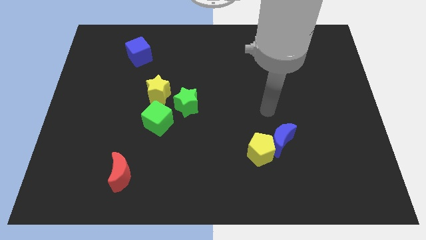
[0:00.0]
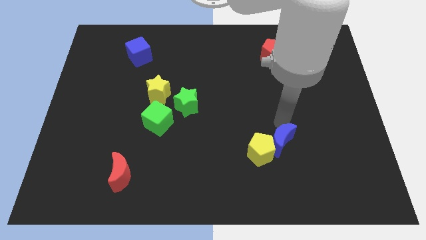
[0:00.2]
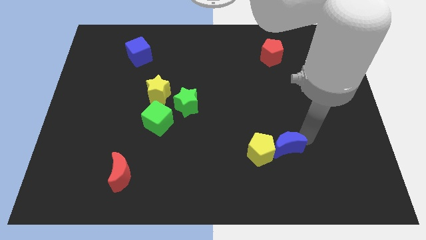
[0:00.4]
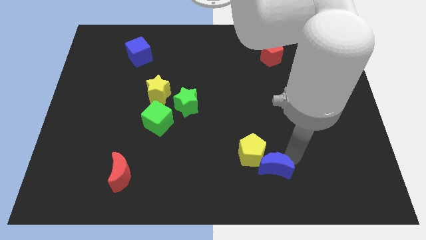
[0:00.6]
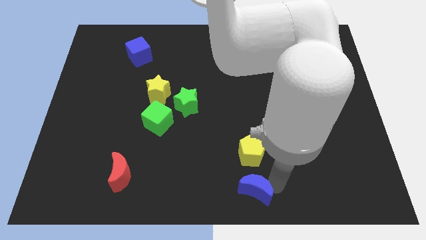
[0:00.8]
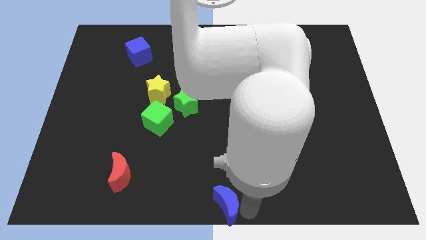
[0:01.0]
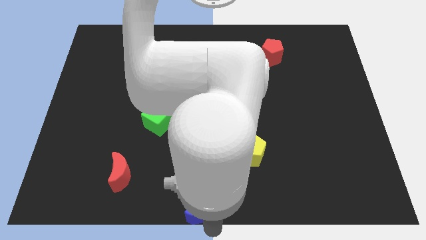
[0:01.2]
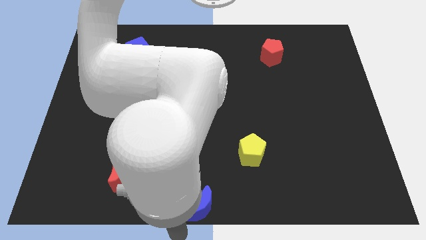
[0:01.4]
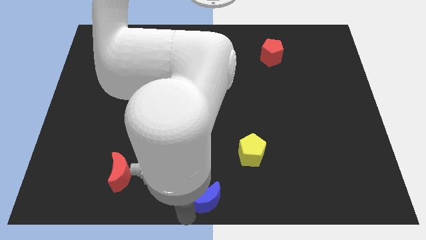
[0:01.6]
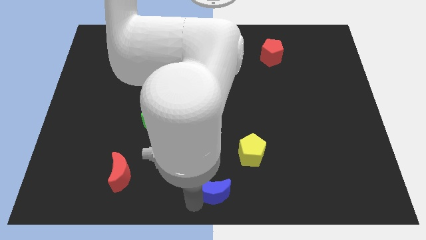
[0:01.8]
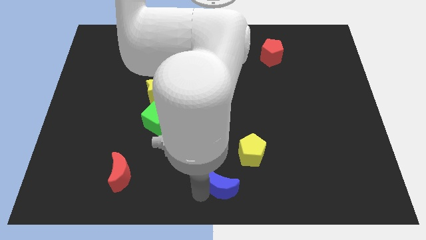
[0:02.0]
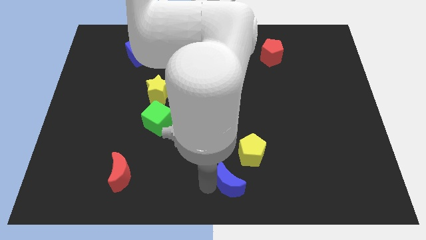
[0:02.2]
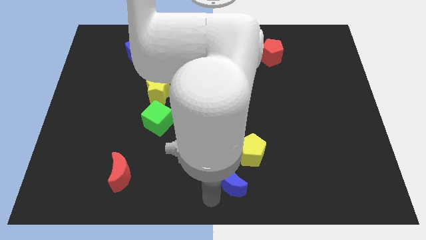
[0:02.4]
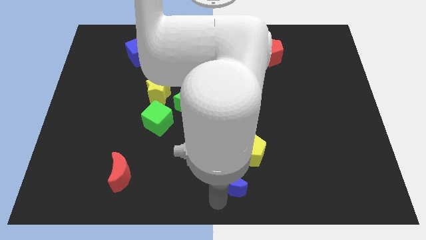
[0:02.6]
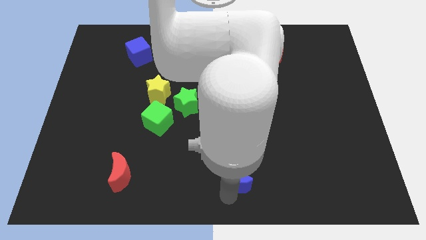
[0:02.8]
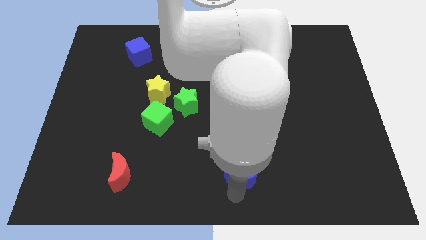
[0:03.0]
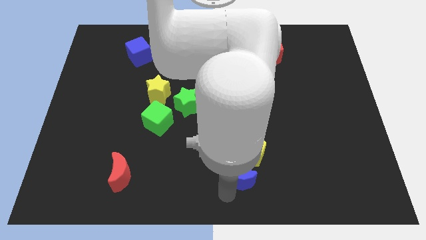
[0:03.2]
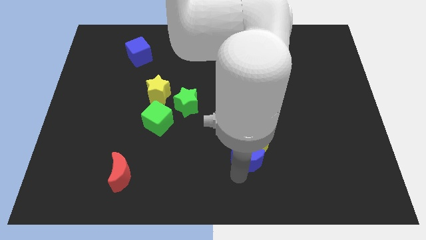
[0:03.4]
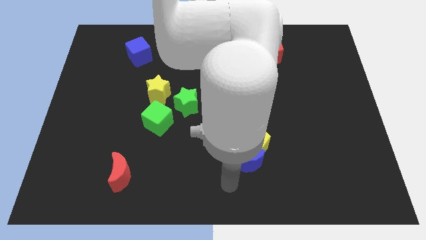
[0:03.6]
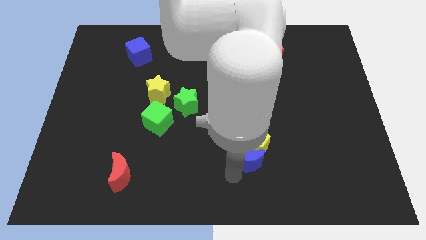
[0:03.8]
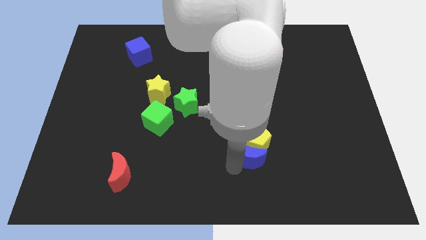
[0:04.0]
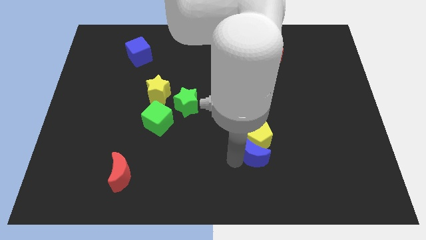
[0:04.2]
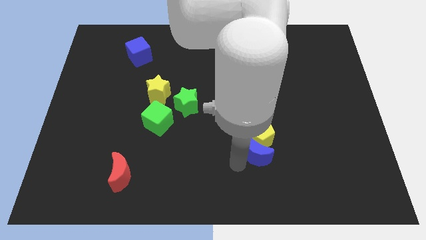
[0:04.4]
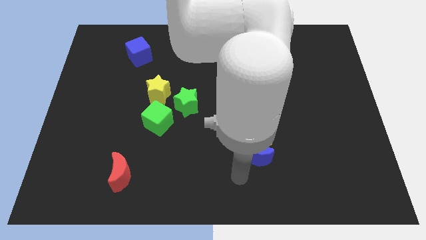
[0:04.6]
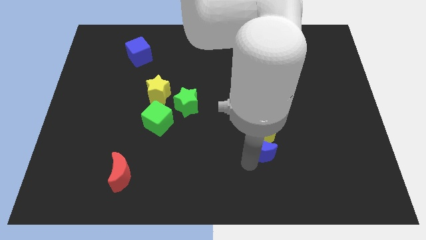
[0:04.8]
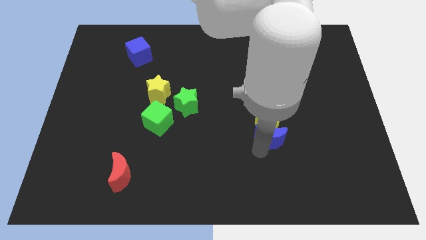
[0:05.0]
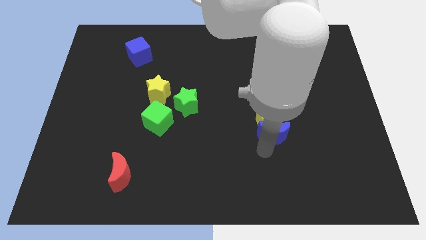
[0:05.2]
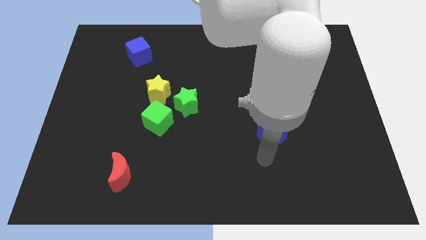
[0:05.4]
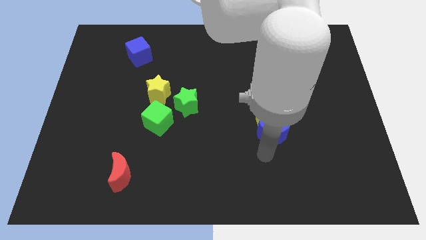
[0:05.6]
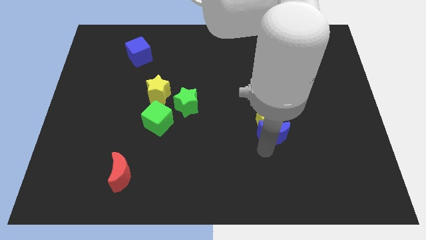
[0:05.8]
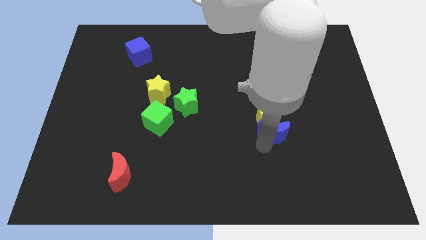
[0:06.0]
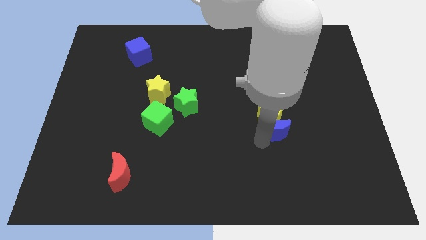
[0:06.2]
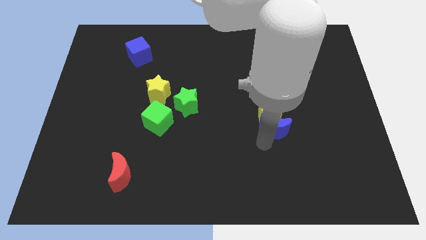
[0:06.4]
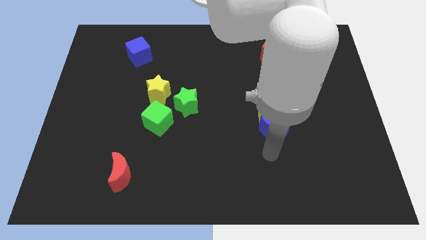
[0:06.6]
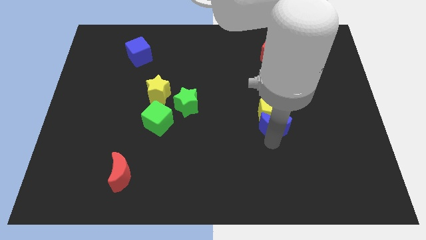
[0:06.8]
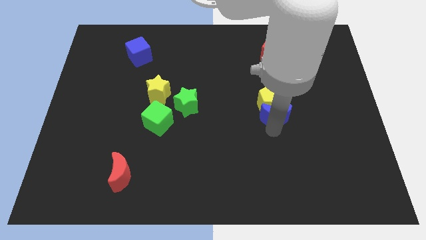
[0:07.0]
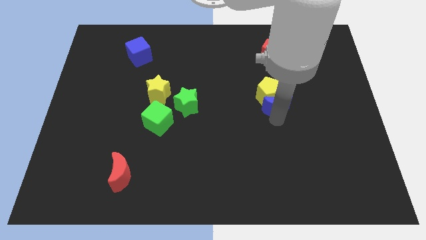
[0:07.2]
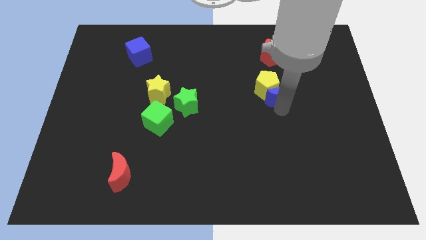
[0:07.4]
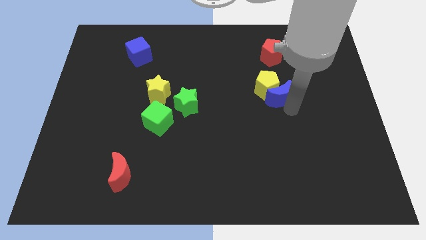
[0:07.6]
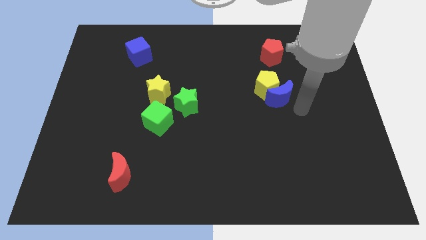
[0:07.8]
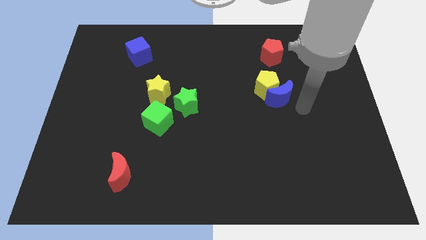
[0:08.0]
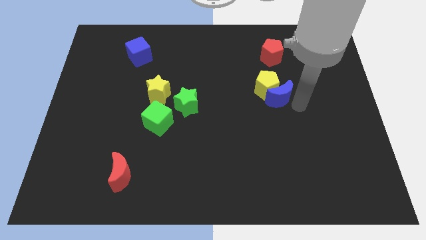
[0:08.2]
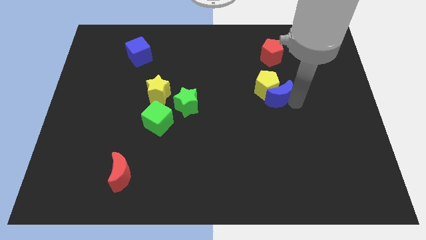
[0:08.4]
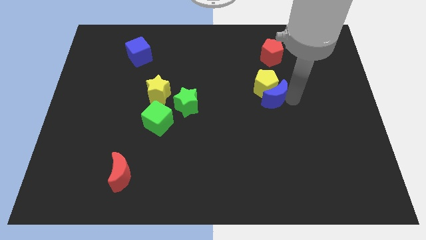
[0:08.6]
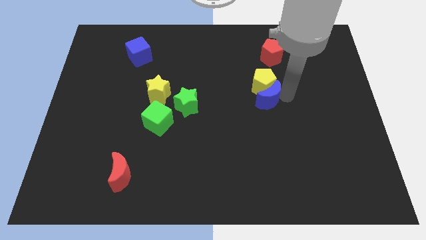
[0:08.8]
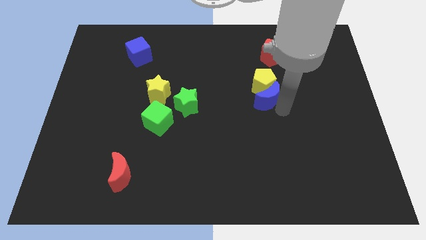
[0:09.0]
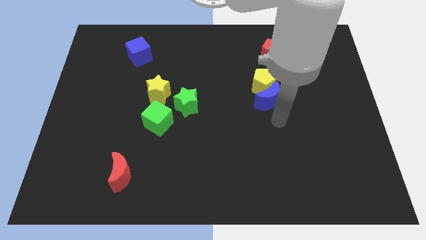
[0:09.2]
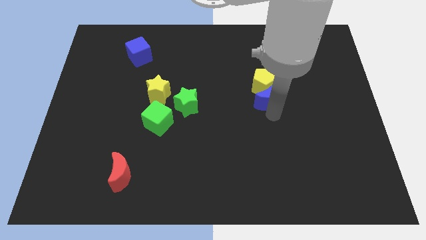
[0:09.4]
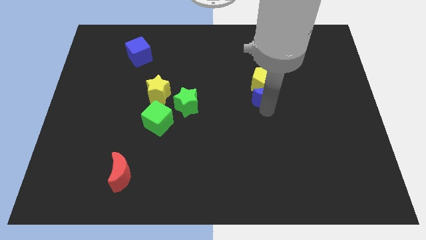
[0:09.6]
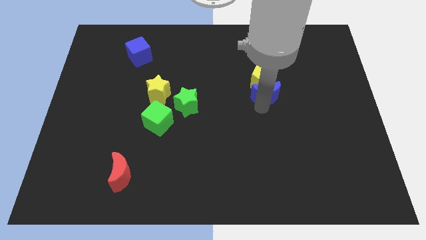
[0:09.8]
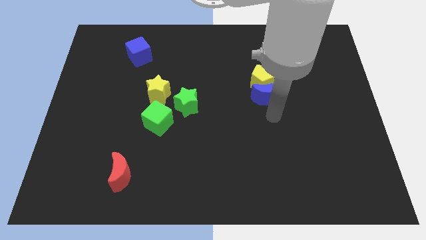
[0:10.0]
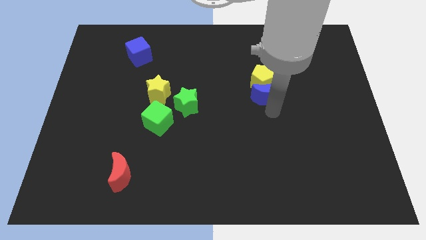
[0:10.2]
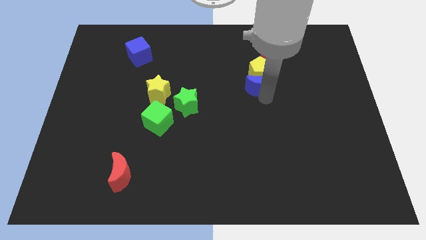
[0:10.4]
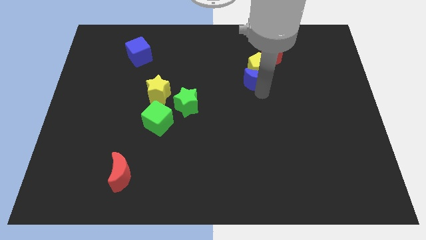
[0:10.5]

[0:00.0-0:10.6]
slide the blue moon to the bottom left of the red pentagon

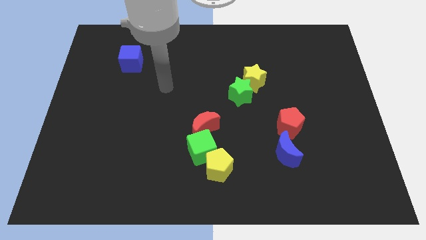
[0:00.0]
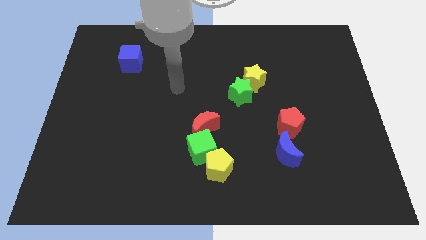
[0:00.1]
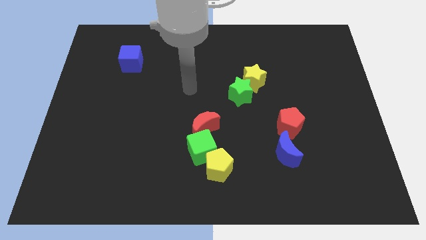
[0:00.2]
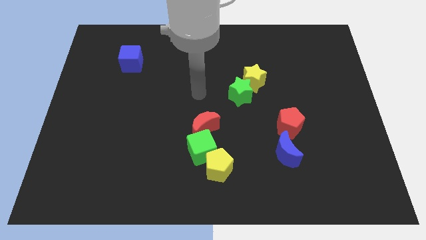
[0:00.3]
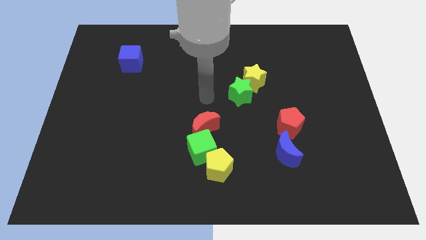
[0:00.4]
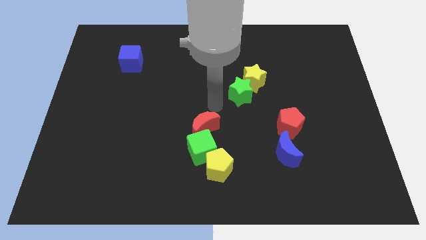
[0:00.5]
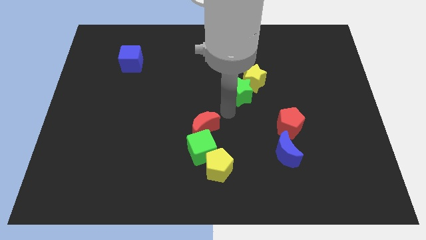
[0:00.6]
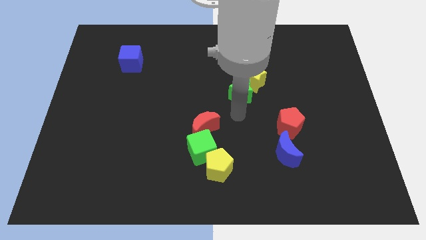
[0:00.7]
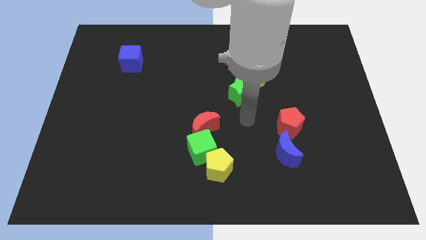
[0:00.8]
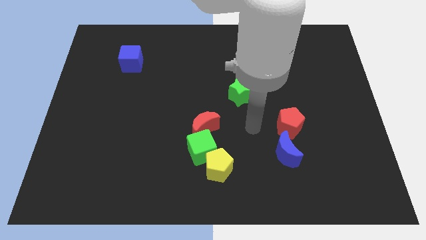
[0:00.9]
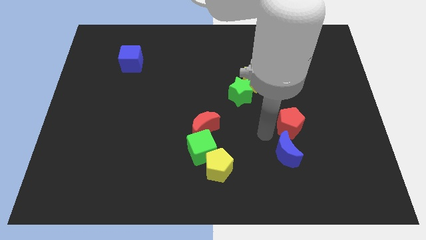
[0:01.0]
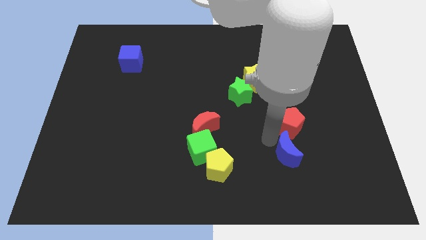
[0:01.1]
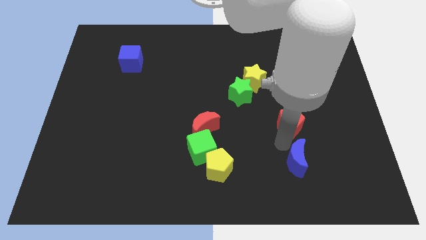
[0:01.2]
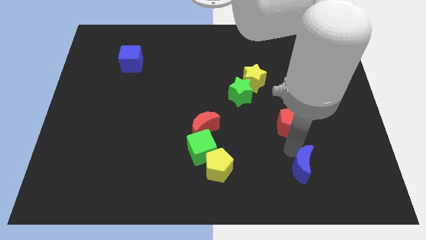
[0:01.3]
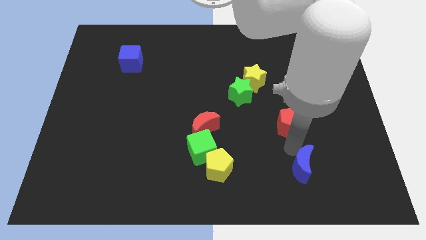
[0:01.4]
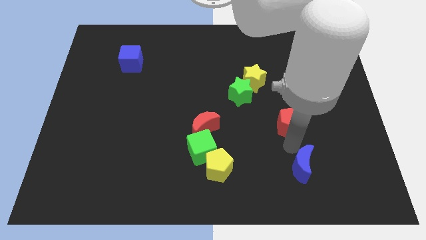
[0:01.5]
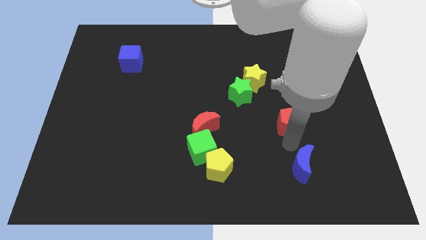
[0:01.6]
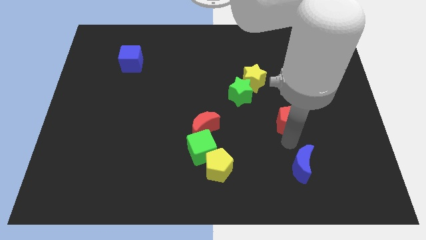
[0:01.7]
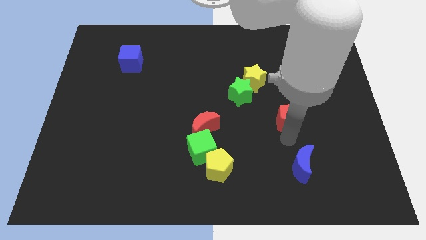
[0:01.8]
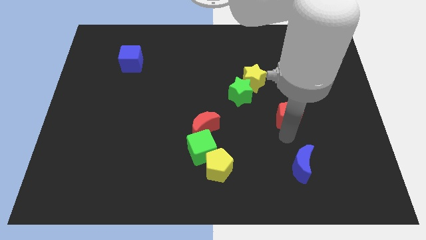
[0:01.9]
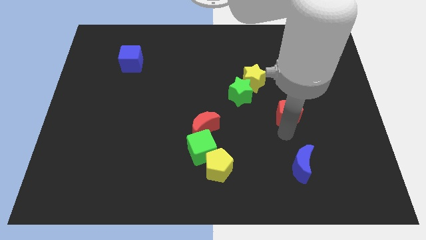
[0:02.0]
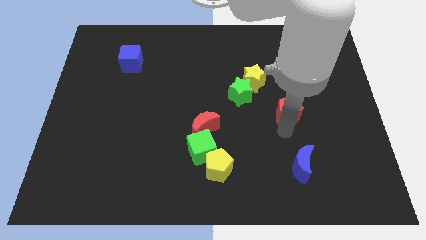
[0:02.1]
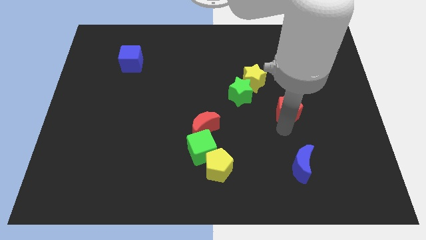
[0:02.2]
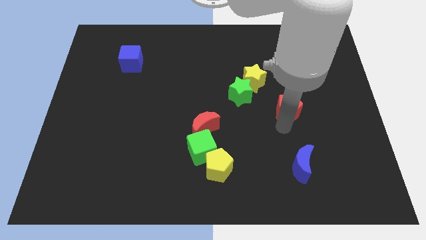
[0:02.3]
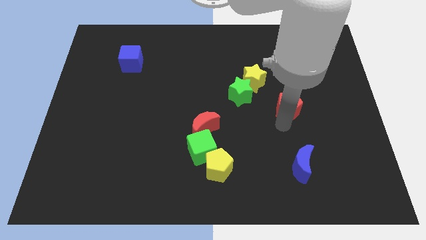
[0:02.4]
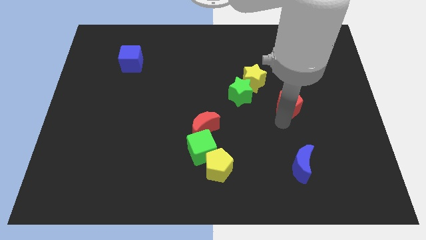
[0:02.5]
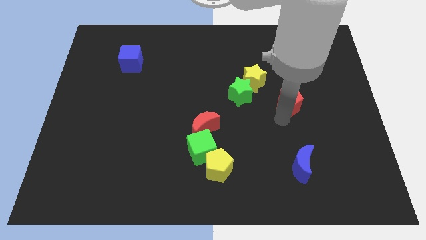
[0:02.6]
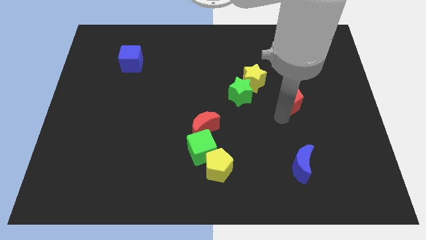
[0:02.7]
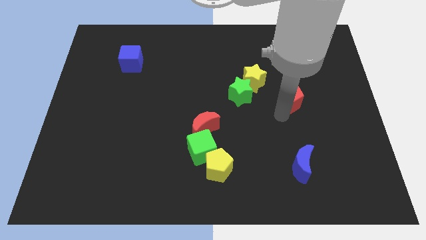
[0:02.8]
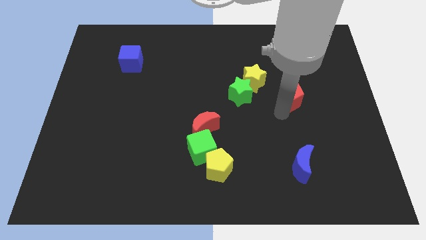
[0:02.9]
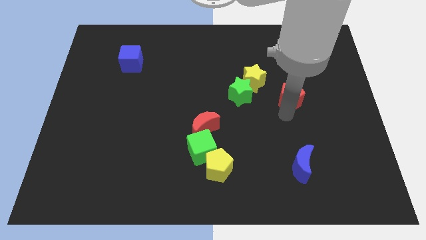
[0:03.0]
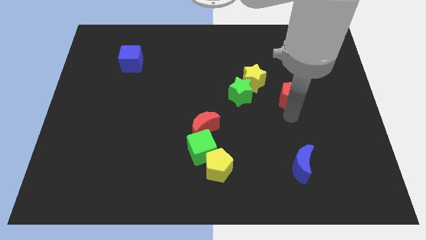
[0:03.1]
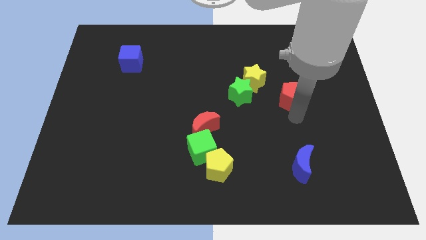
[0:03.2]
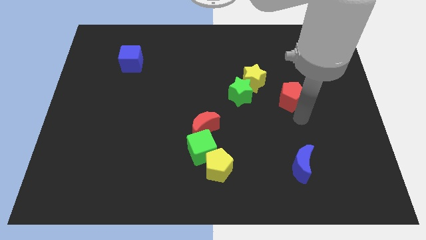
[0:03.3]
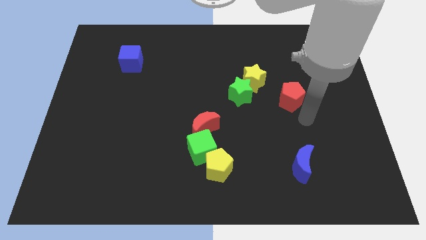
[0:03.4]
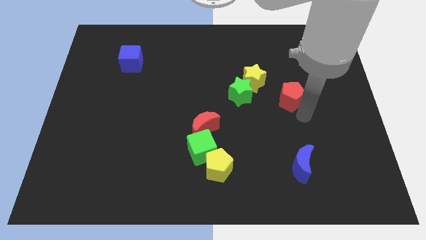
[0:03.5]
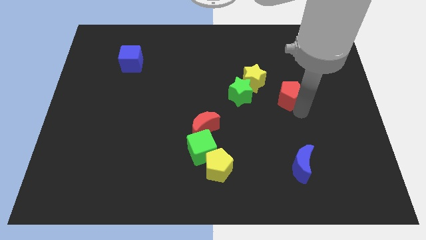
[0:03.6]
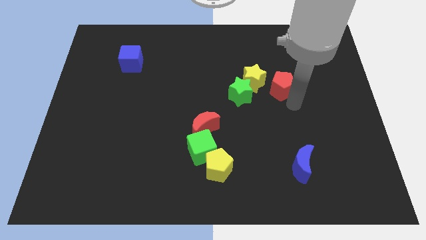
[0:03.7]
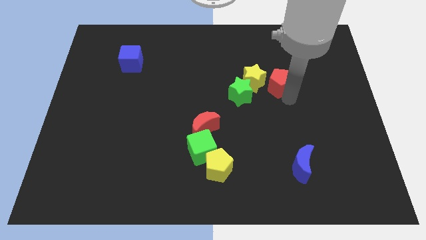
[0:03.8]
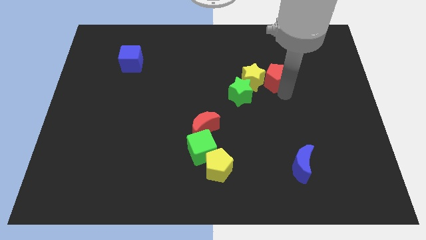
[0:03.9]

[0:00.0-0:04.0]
push the red pentagon to the top right side of the yellow star
